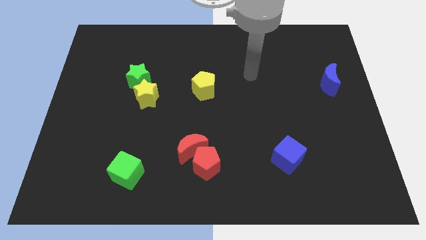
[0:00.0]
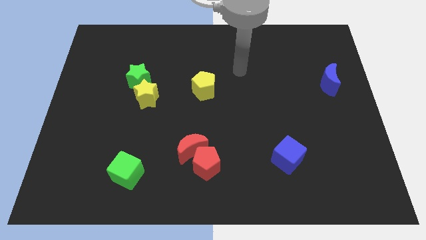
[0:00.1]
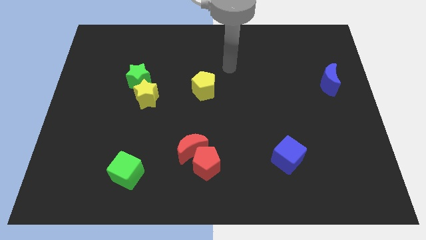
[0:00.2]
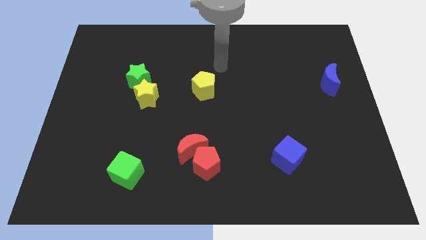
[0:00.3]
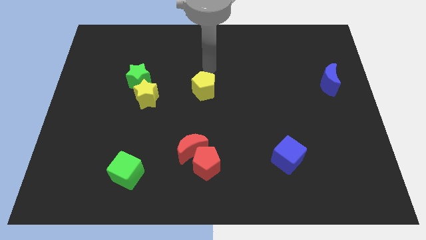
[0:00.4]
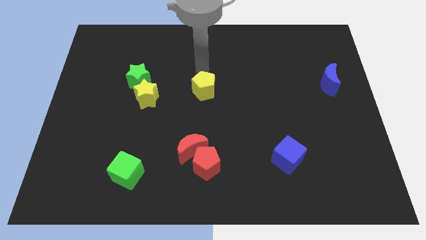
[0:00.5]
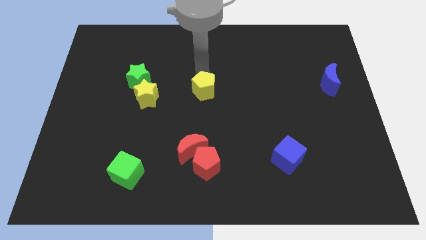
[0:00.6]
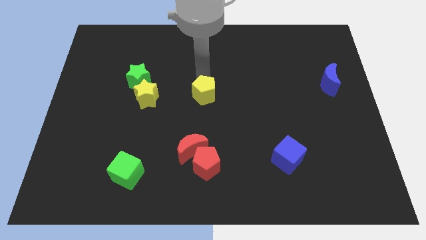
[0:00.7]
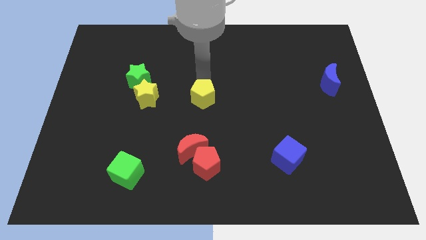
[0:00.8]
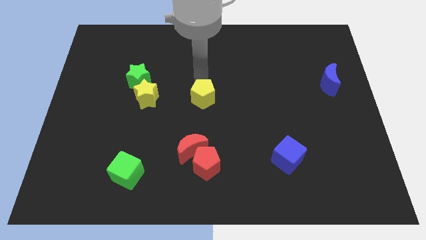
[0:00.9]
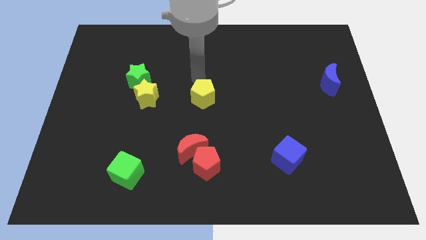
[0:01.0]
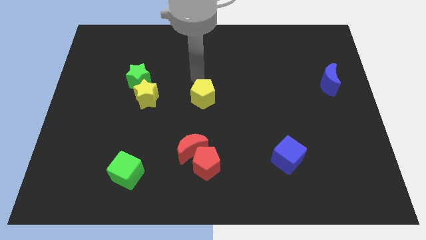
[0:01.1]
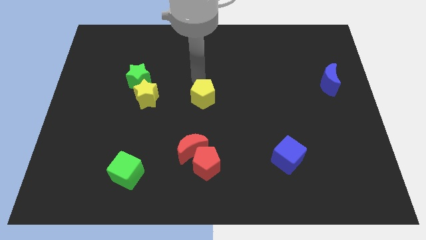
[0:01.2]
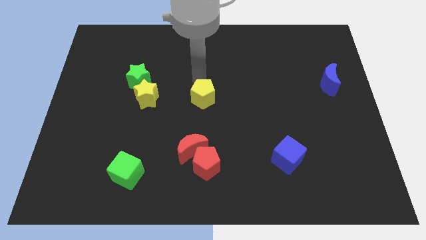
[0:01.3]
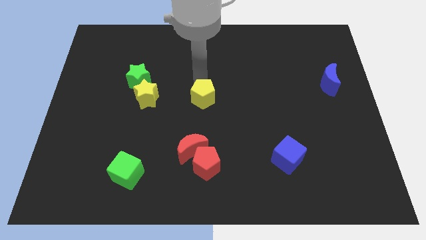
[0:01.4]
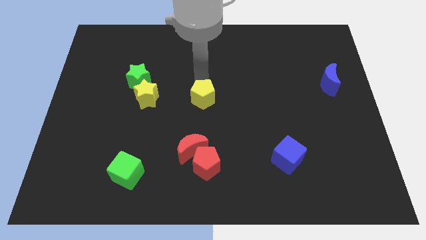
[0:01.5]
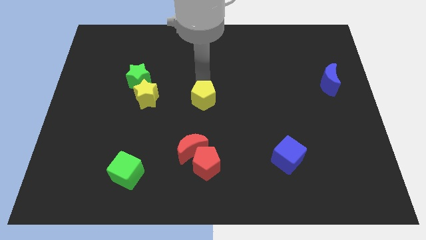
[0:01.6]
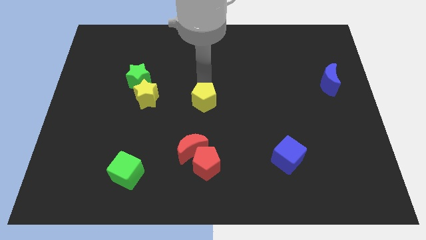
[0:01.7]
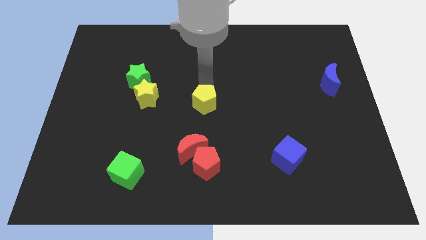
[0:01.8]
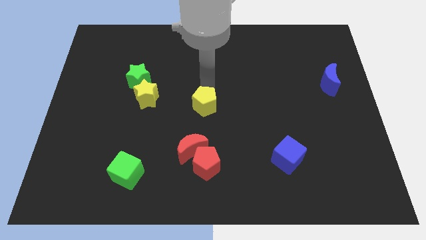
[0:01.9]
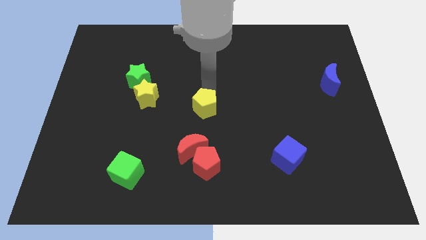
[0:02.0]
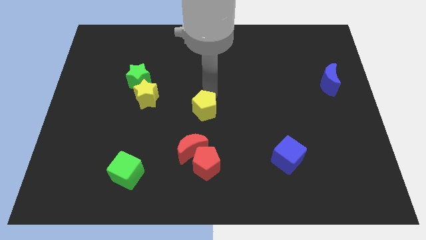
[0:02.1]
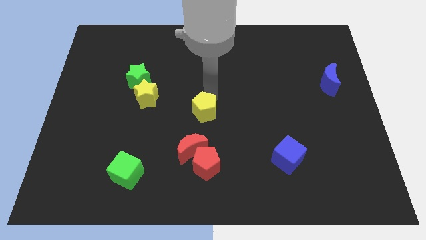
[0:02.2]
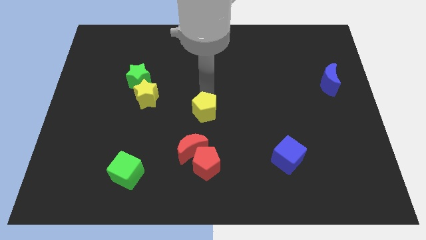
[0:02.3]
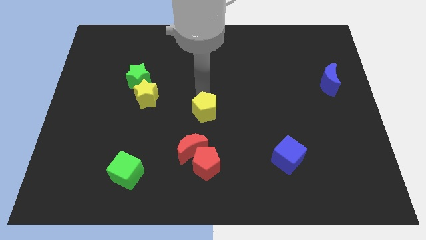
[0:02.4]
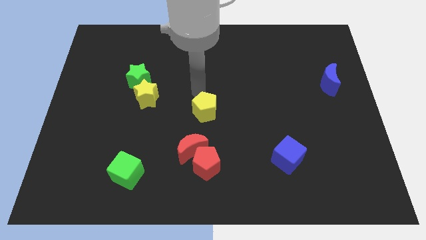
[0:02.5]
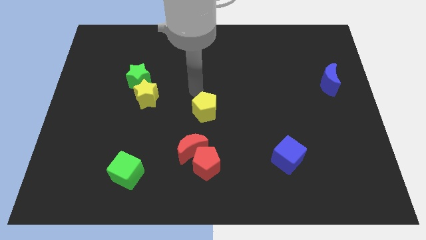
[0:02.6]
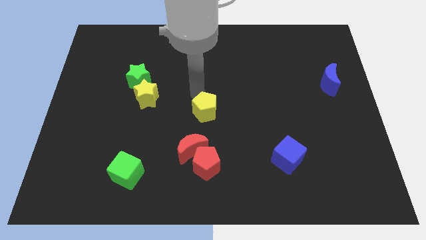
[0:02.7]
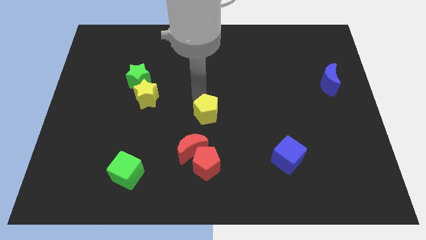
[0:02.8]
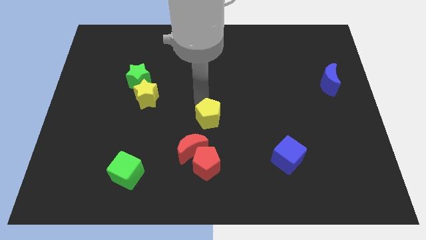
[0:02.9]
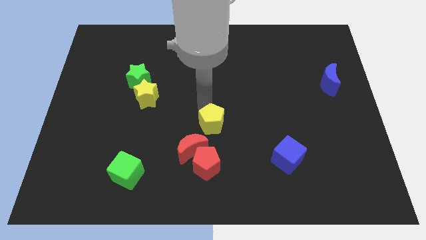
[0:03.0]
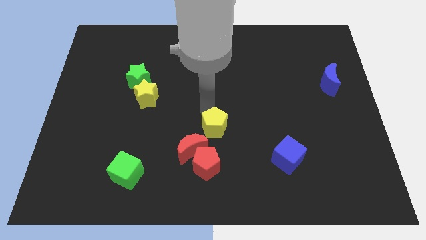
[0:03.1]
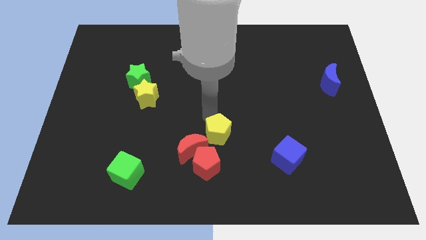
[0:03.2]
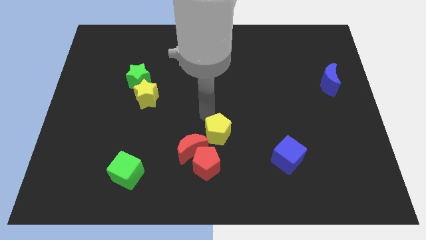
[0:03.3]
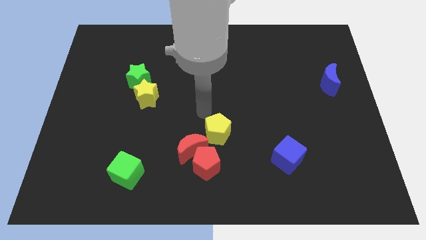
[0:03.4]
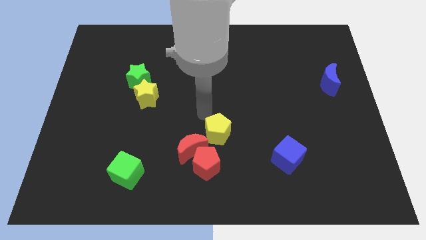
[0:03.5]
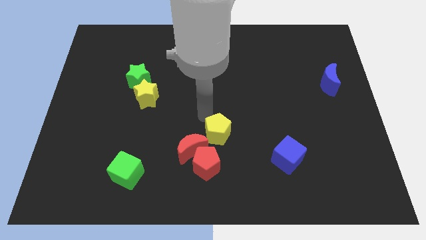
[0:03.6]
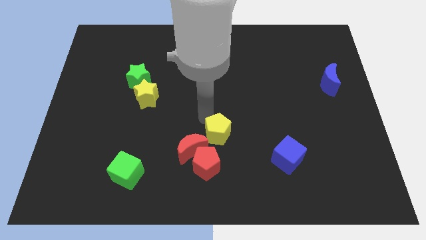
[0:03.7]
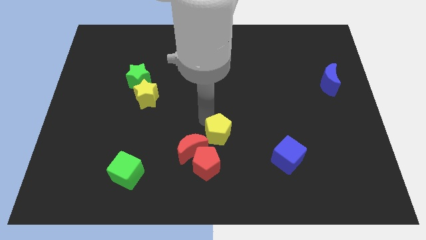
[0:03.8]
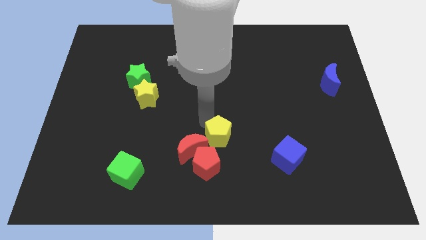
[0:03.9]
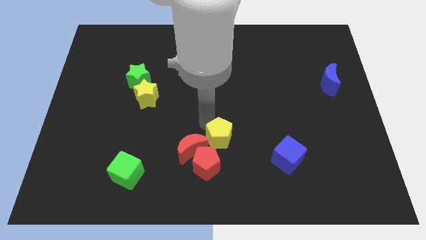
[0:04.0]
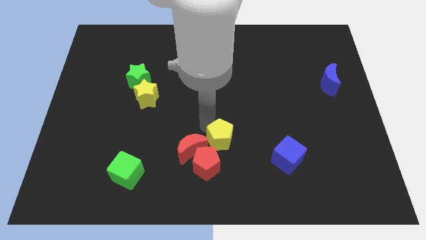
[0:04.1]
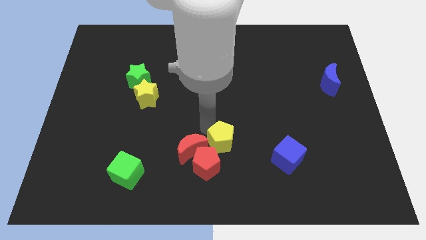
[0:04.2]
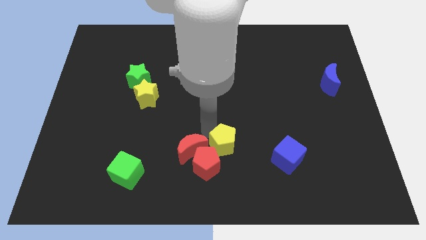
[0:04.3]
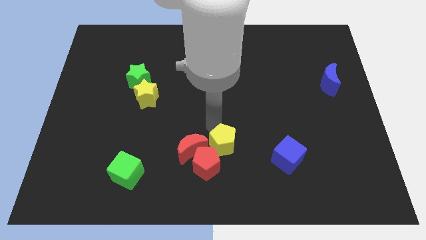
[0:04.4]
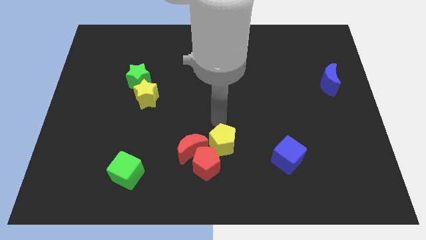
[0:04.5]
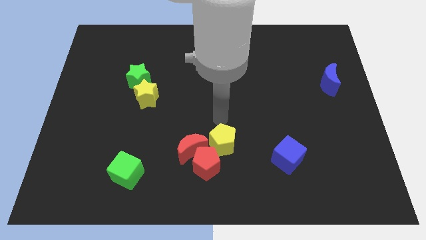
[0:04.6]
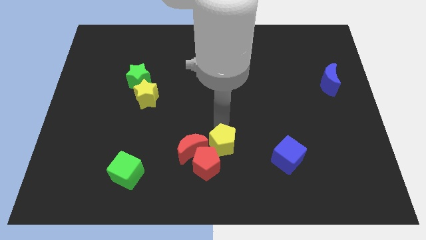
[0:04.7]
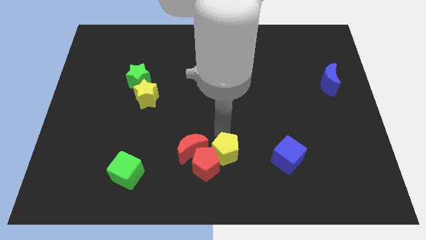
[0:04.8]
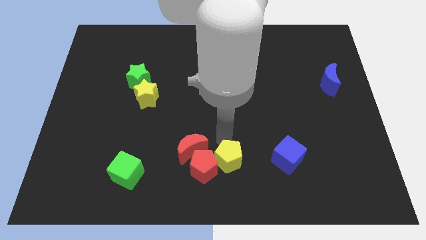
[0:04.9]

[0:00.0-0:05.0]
push the yellow pentagon to the bottom

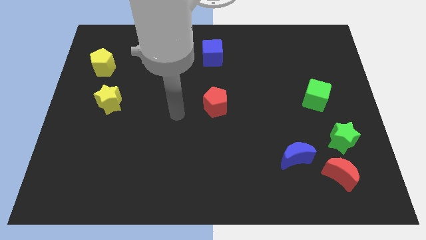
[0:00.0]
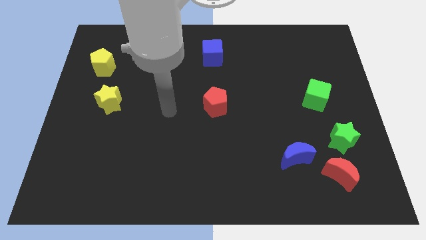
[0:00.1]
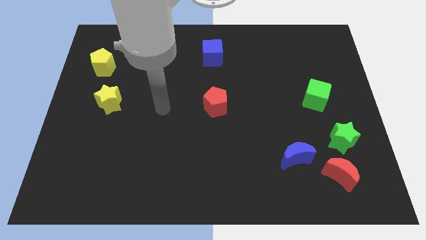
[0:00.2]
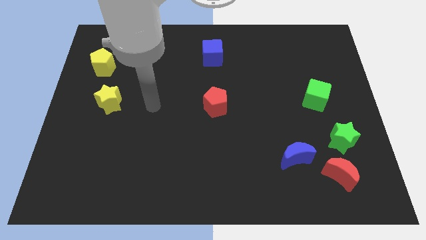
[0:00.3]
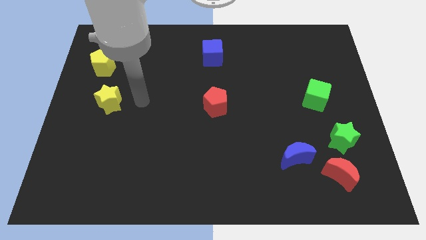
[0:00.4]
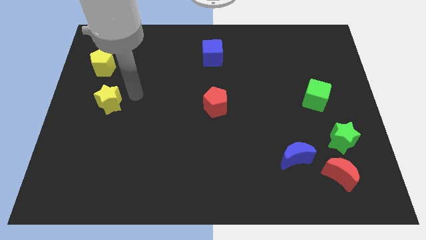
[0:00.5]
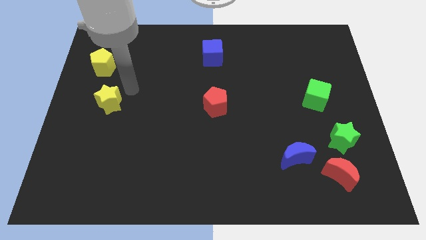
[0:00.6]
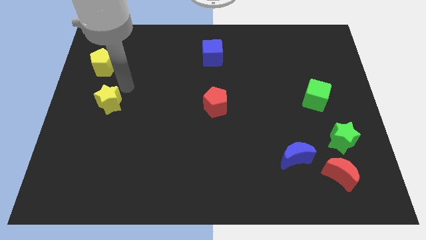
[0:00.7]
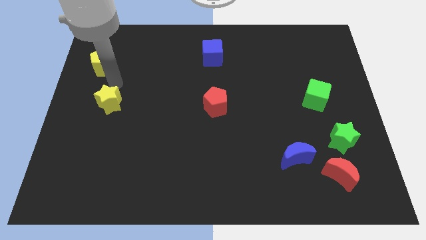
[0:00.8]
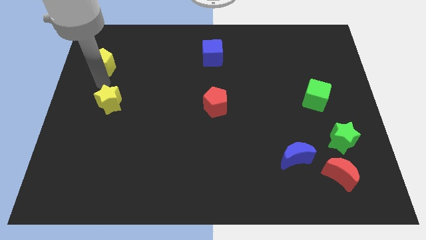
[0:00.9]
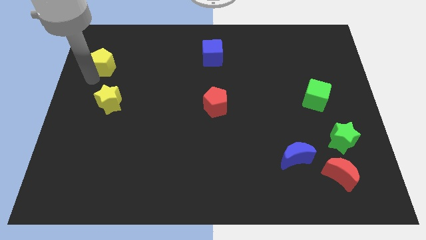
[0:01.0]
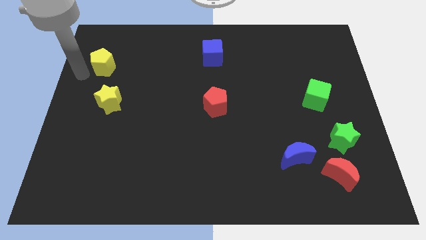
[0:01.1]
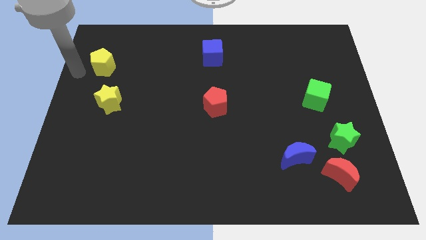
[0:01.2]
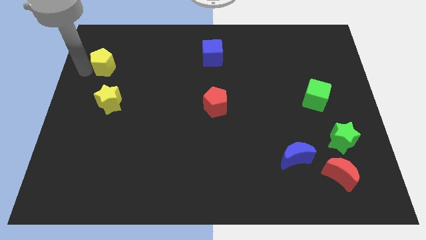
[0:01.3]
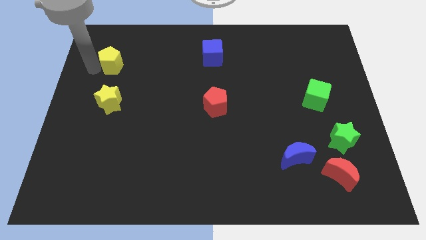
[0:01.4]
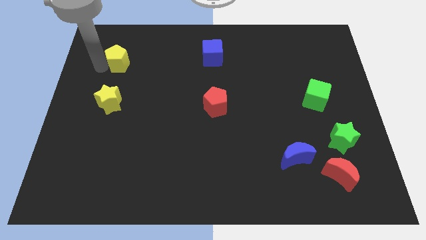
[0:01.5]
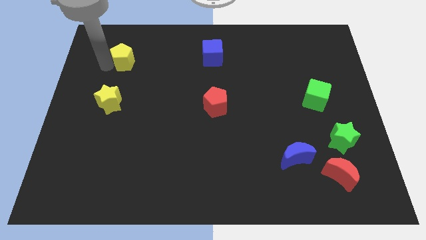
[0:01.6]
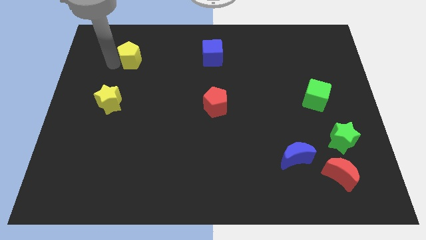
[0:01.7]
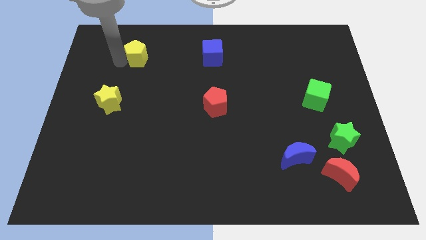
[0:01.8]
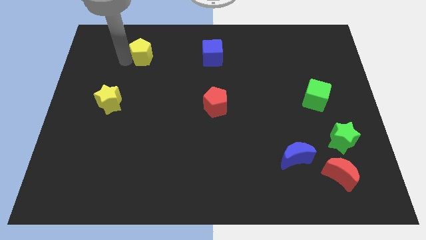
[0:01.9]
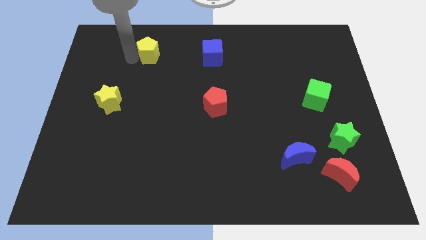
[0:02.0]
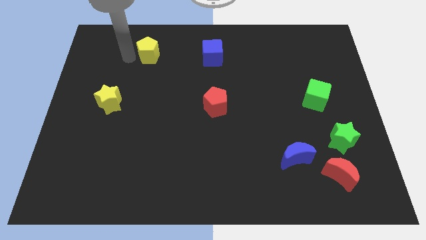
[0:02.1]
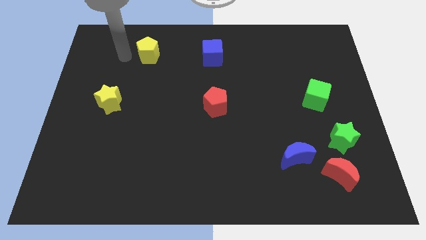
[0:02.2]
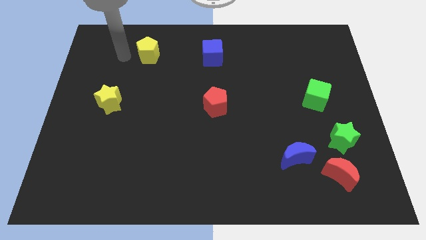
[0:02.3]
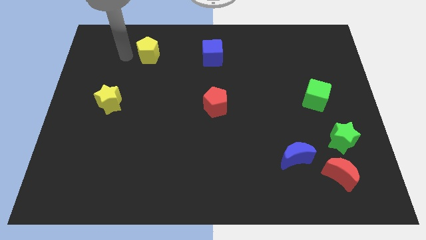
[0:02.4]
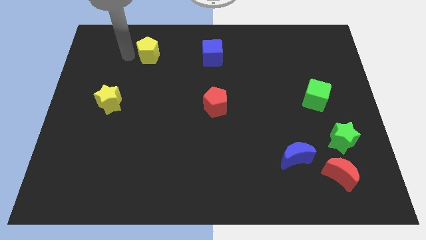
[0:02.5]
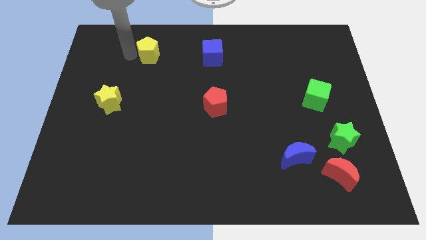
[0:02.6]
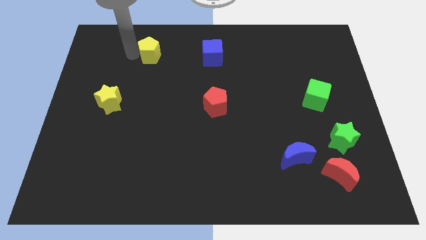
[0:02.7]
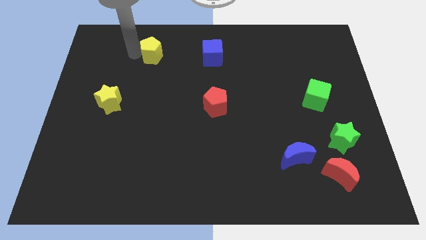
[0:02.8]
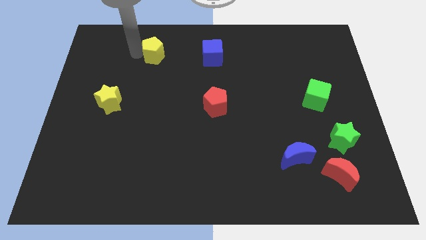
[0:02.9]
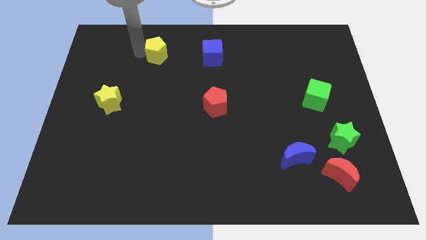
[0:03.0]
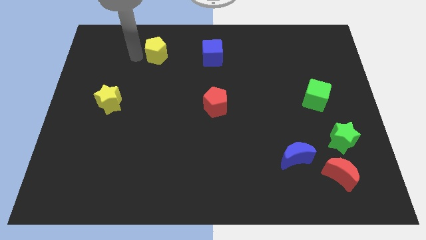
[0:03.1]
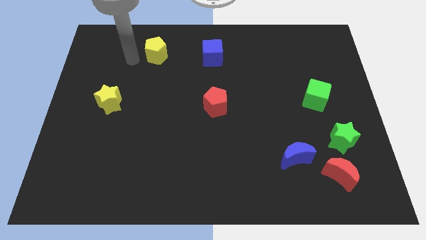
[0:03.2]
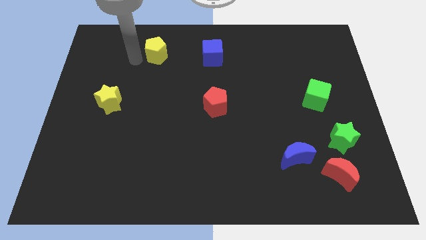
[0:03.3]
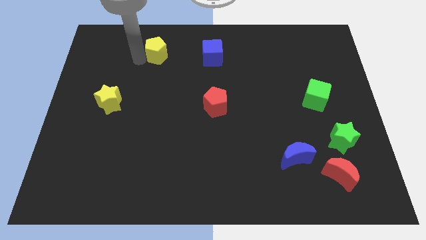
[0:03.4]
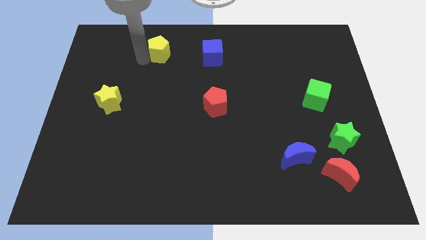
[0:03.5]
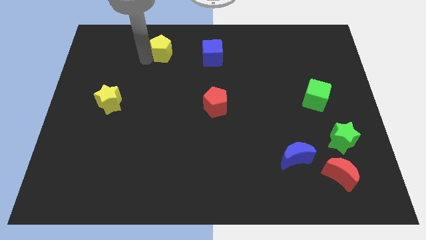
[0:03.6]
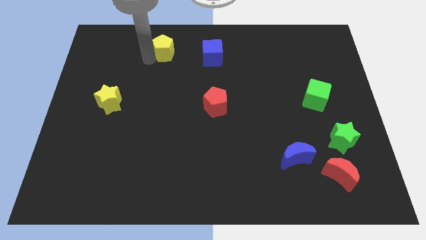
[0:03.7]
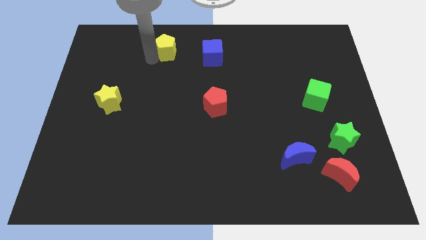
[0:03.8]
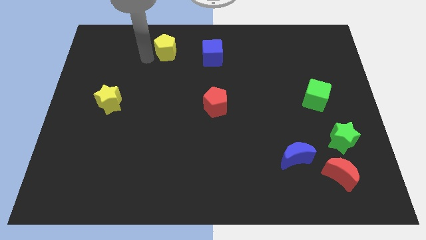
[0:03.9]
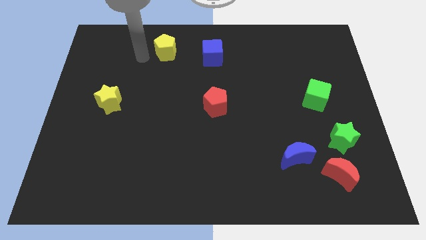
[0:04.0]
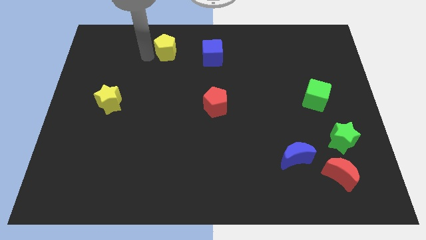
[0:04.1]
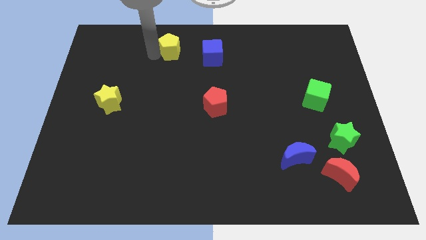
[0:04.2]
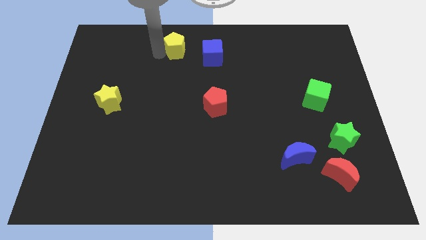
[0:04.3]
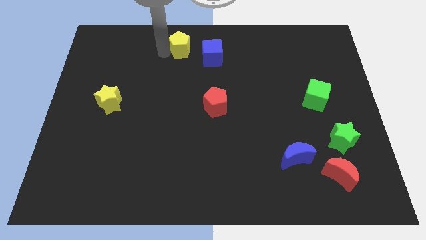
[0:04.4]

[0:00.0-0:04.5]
slide the yellow pentagon to the top side
